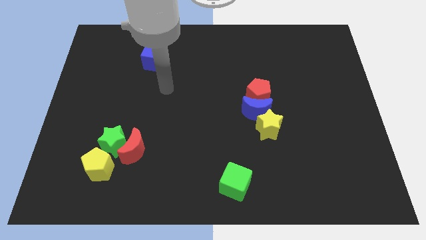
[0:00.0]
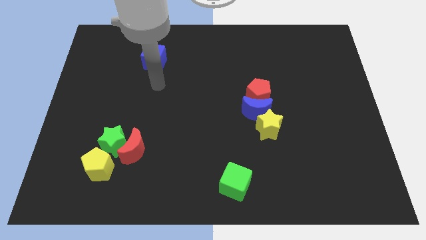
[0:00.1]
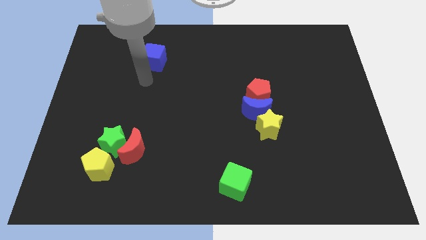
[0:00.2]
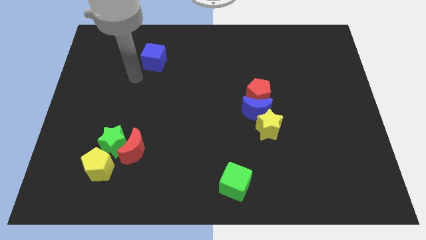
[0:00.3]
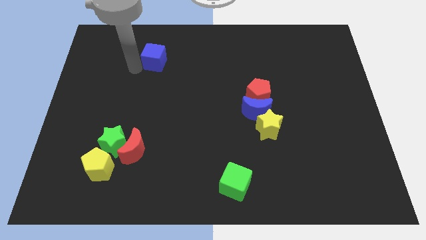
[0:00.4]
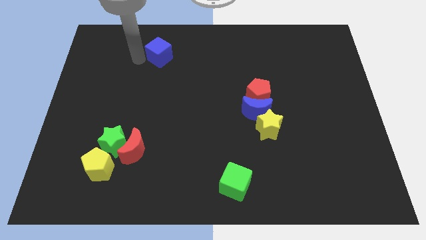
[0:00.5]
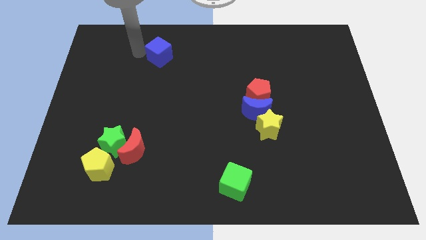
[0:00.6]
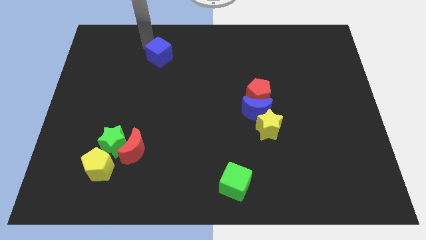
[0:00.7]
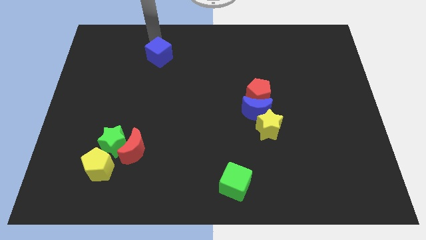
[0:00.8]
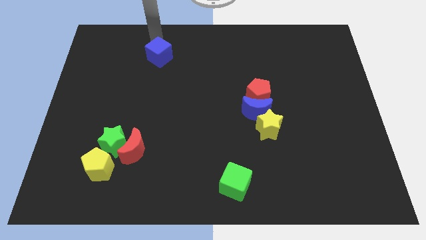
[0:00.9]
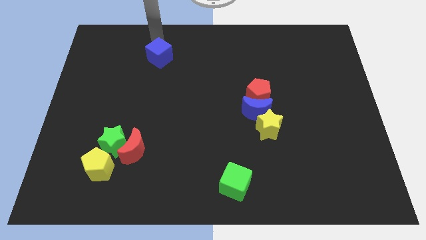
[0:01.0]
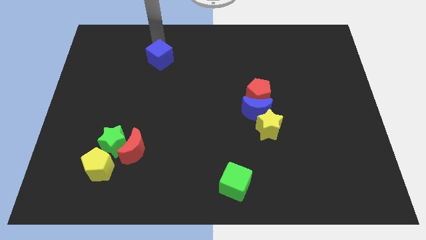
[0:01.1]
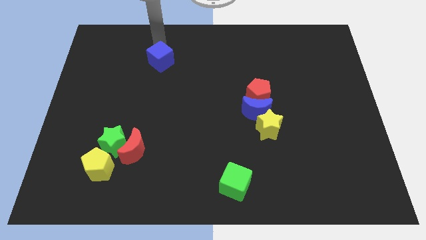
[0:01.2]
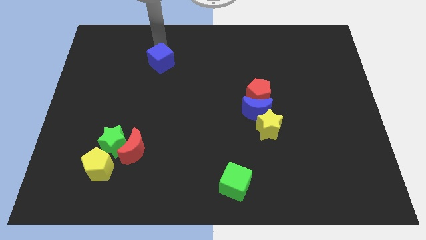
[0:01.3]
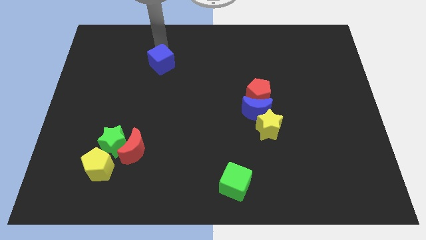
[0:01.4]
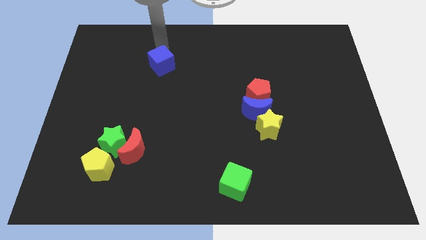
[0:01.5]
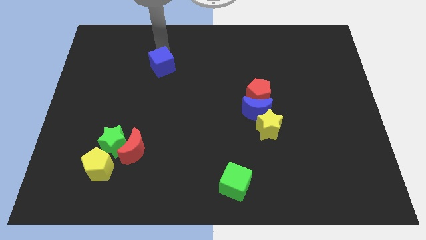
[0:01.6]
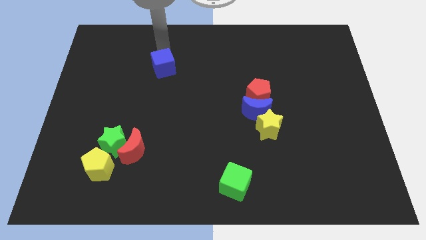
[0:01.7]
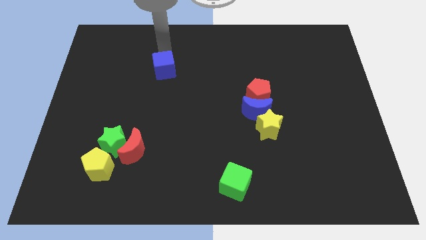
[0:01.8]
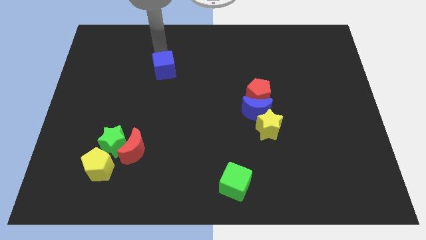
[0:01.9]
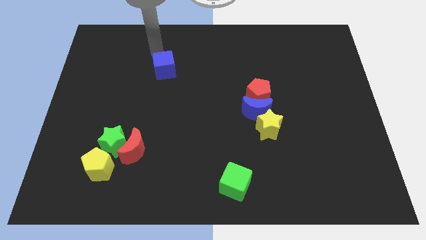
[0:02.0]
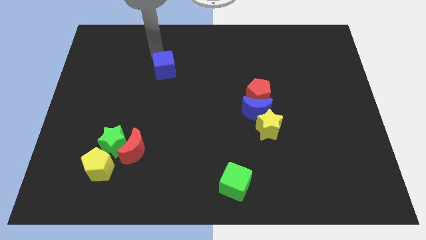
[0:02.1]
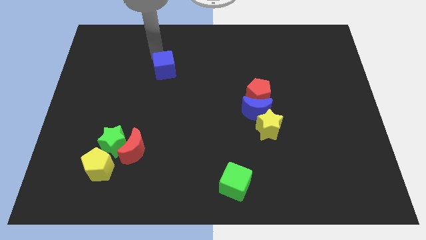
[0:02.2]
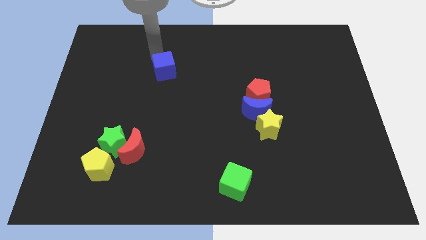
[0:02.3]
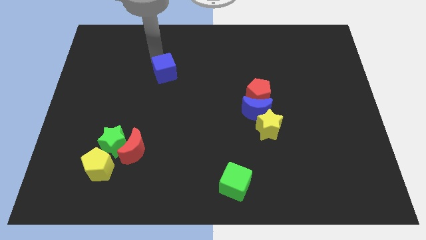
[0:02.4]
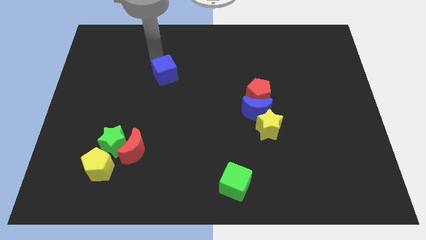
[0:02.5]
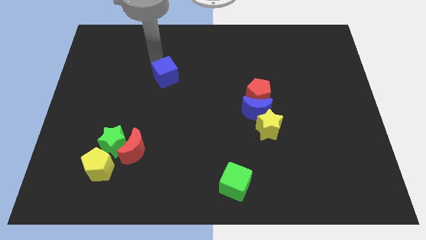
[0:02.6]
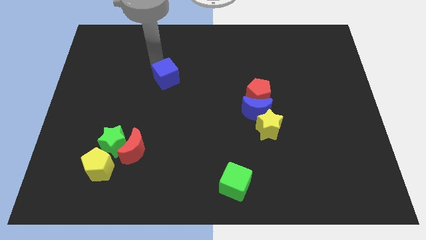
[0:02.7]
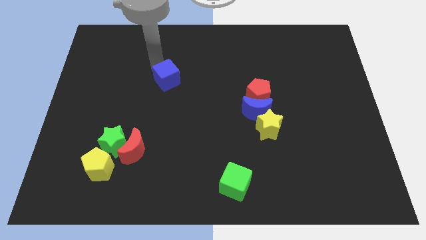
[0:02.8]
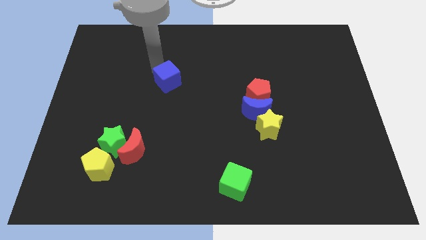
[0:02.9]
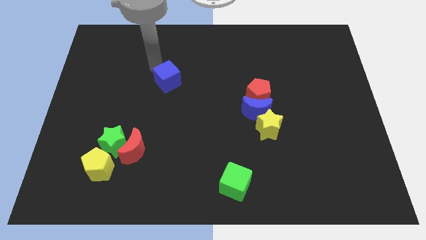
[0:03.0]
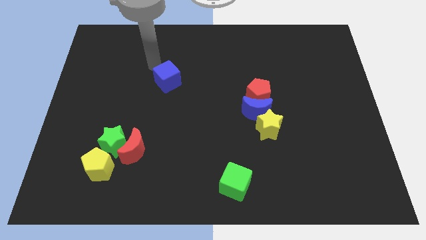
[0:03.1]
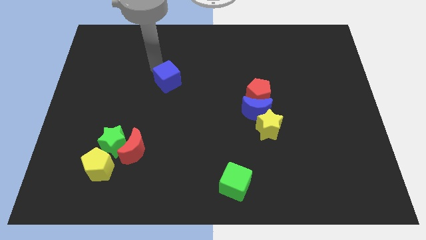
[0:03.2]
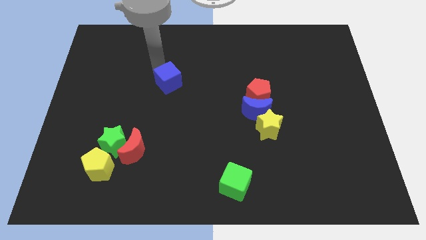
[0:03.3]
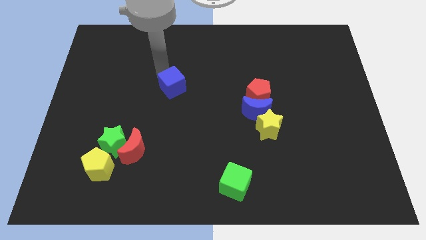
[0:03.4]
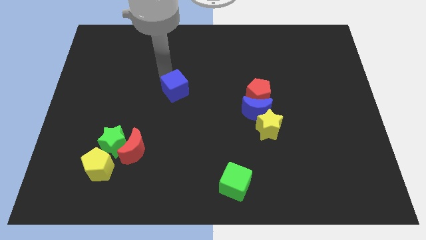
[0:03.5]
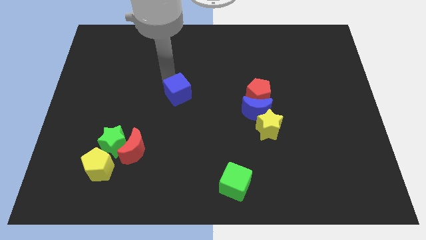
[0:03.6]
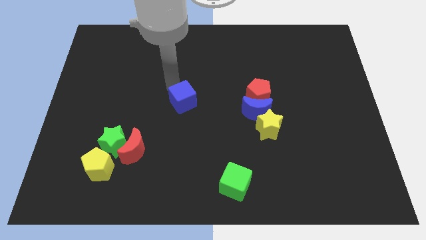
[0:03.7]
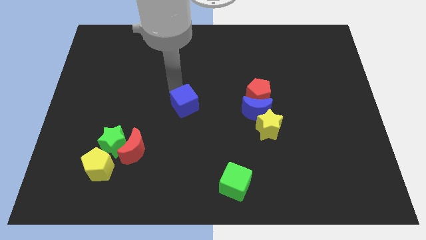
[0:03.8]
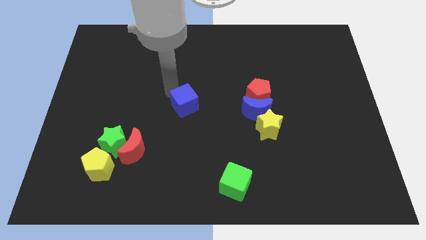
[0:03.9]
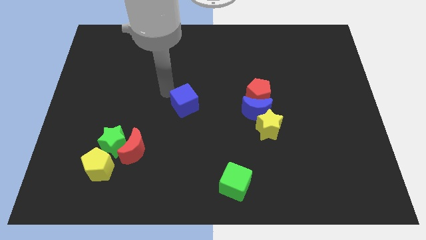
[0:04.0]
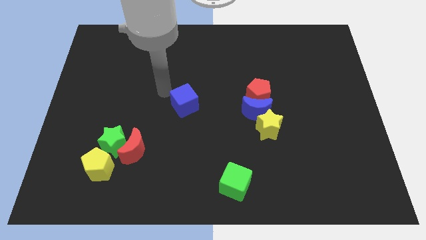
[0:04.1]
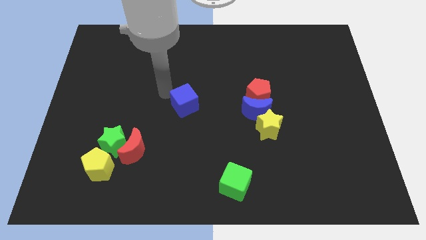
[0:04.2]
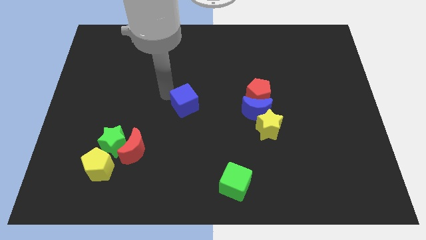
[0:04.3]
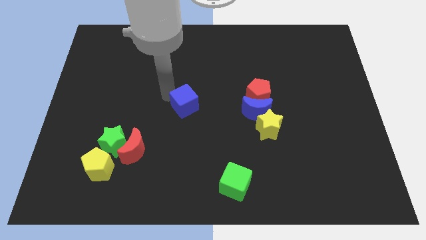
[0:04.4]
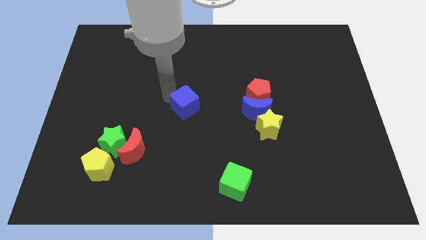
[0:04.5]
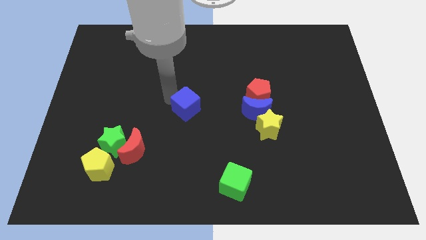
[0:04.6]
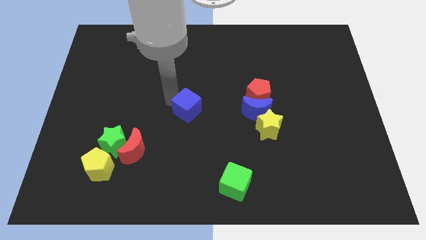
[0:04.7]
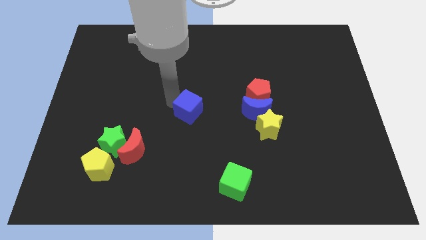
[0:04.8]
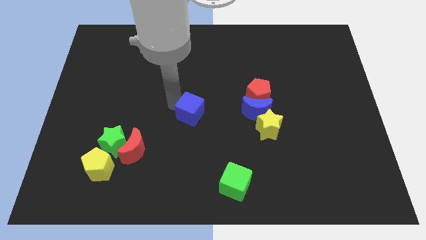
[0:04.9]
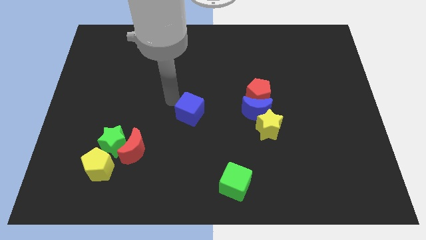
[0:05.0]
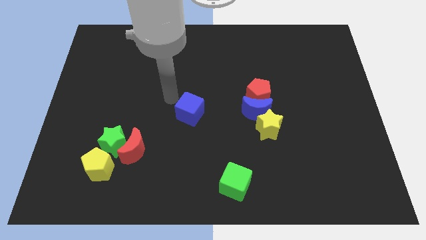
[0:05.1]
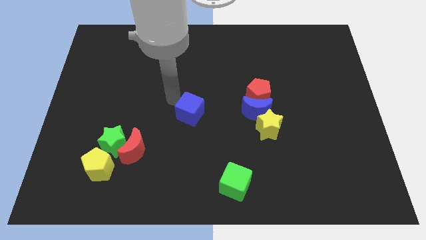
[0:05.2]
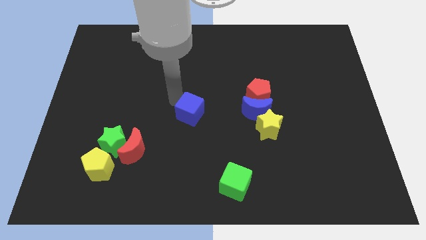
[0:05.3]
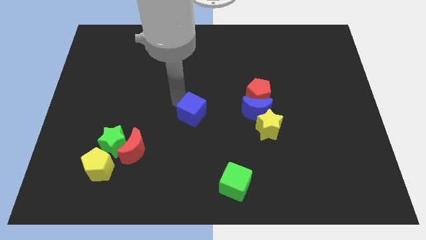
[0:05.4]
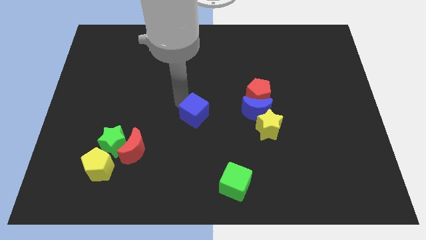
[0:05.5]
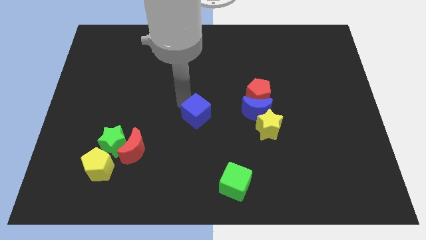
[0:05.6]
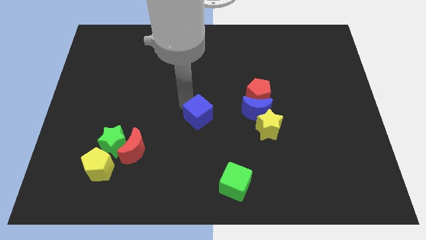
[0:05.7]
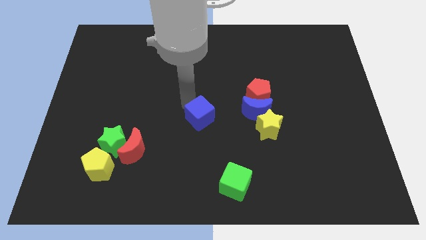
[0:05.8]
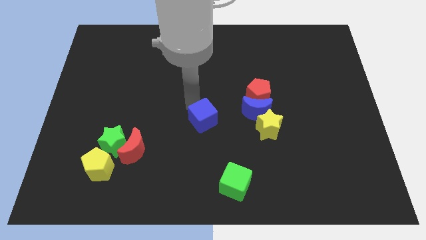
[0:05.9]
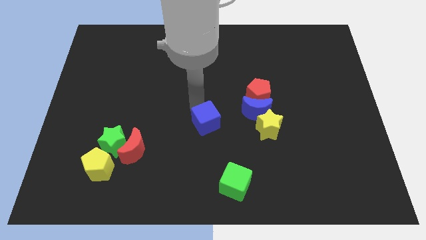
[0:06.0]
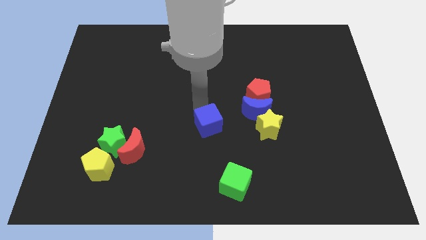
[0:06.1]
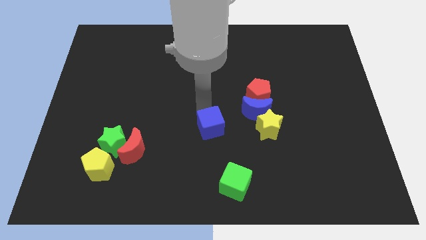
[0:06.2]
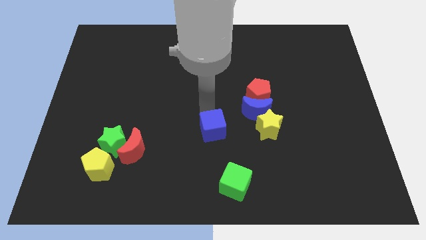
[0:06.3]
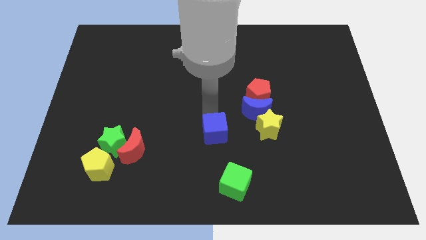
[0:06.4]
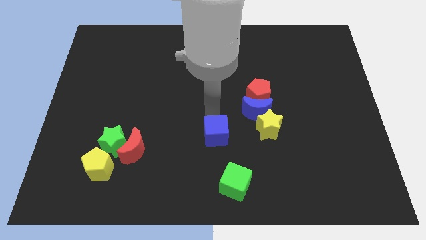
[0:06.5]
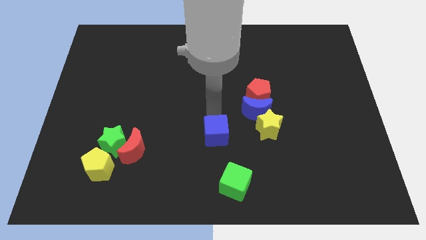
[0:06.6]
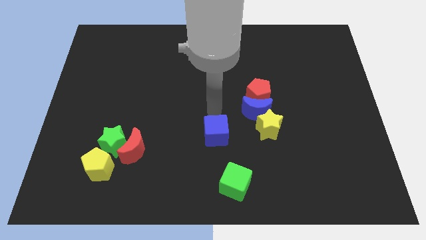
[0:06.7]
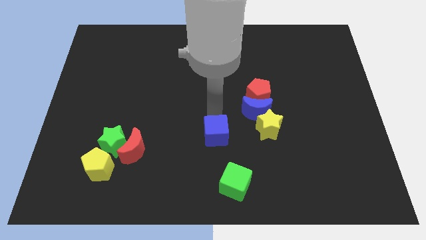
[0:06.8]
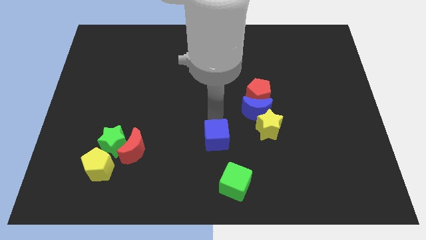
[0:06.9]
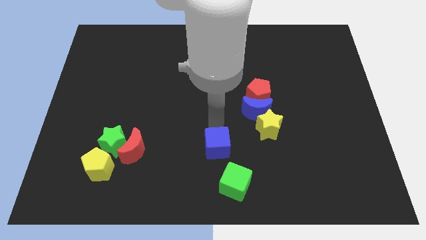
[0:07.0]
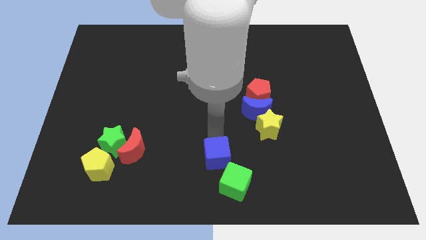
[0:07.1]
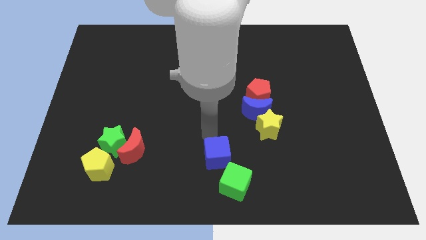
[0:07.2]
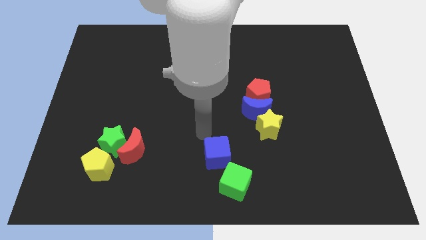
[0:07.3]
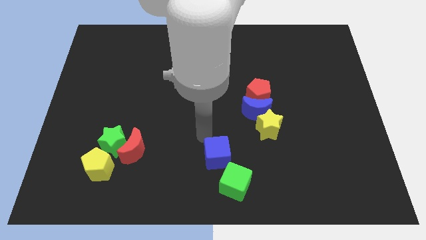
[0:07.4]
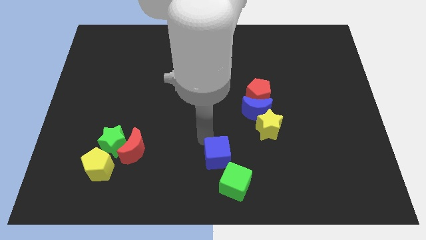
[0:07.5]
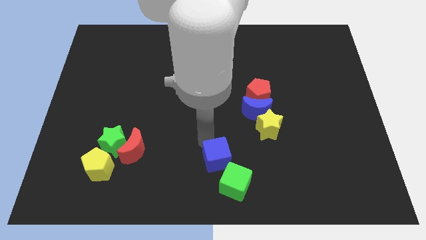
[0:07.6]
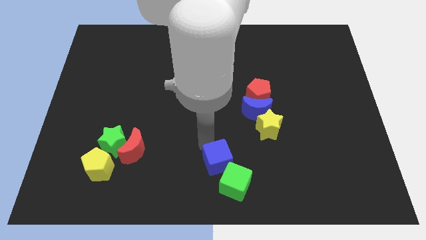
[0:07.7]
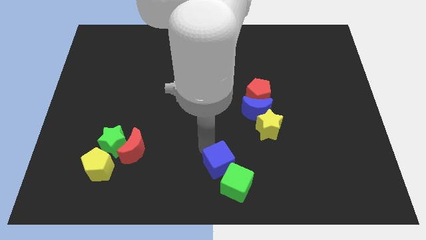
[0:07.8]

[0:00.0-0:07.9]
put the blue cube towards the green cube
